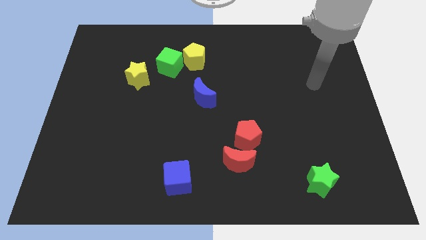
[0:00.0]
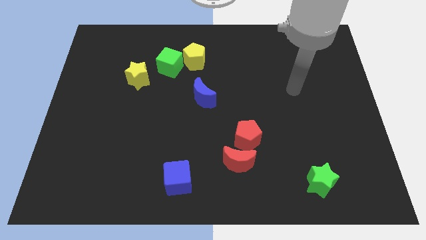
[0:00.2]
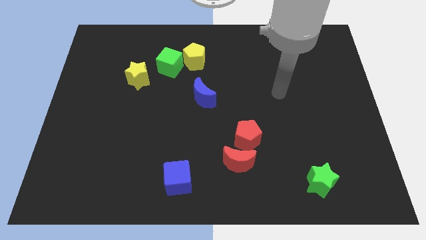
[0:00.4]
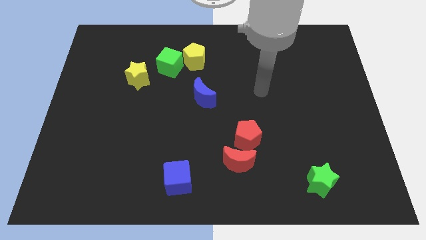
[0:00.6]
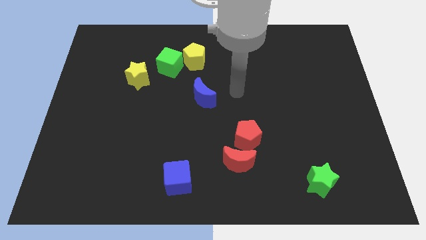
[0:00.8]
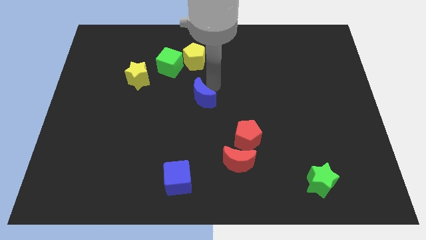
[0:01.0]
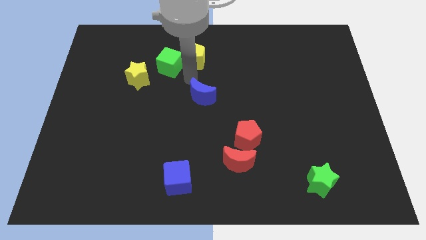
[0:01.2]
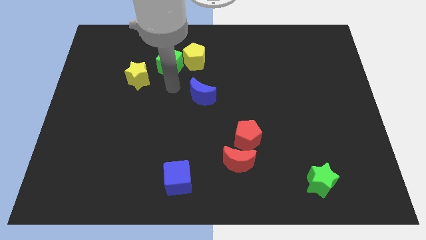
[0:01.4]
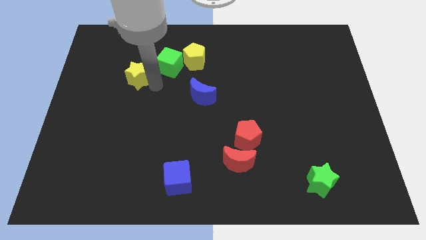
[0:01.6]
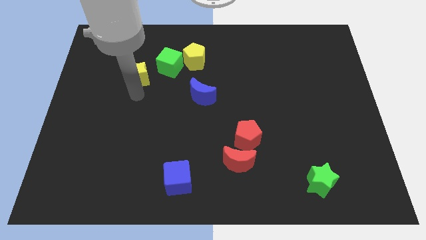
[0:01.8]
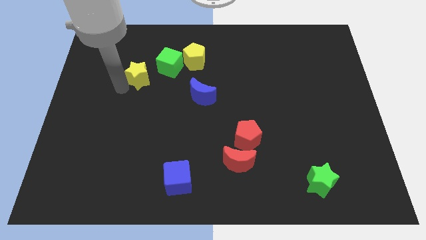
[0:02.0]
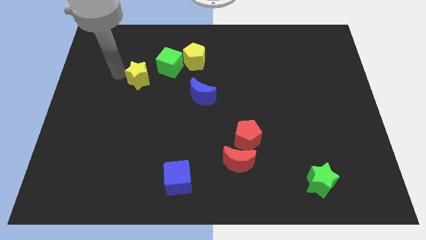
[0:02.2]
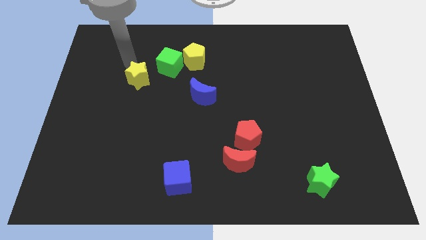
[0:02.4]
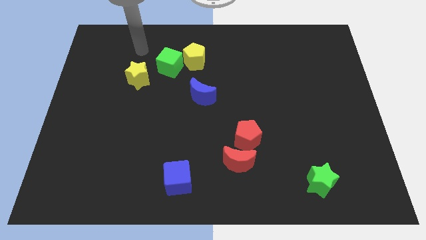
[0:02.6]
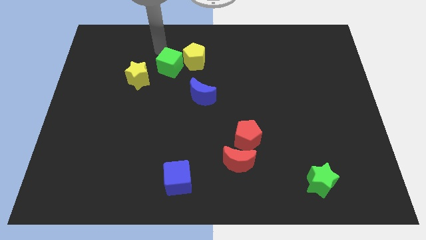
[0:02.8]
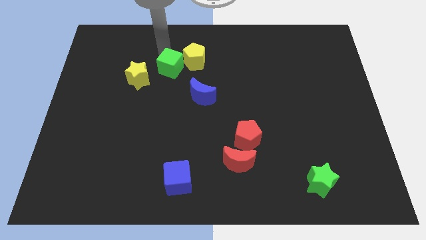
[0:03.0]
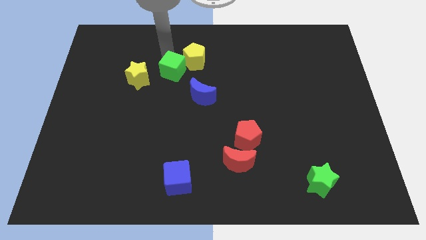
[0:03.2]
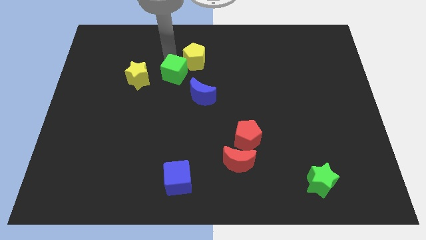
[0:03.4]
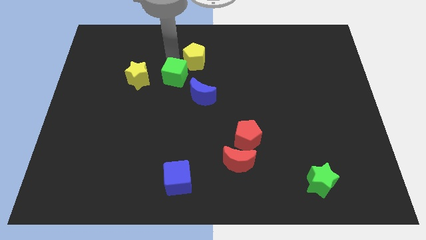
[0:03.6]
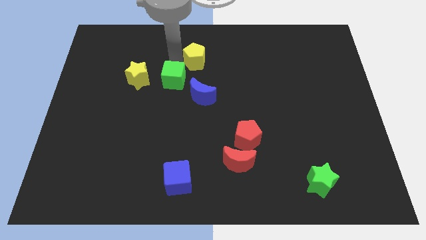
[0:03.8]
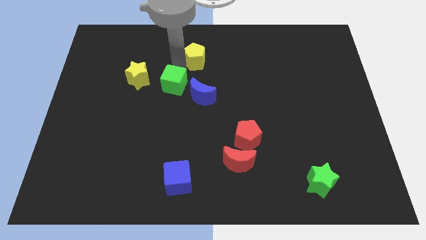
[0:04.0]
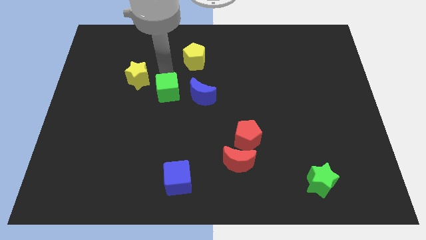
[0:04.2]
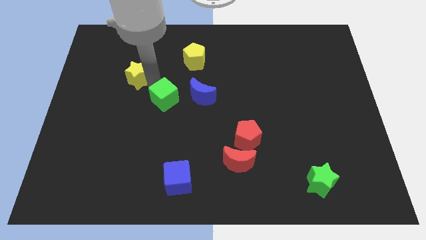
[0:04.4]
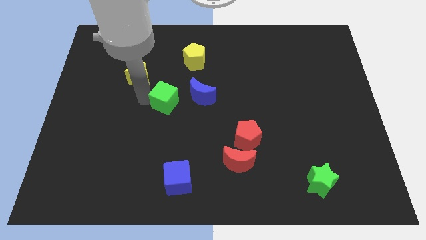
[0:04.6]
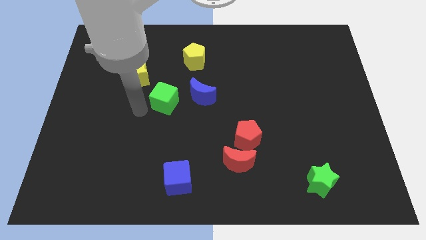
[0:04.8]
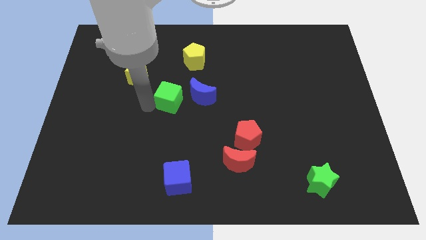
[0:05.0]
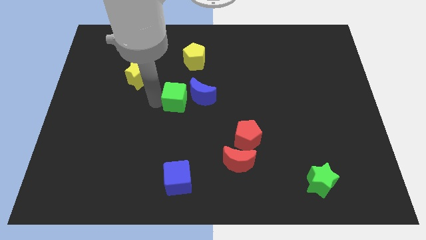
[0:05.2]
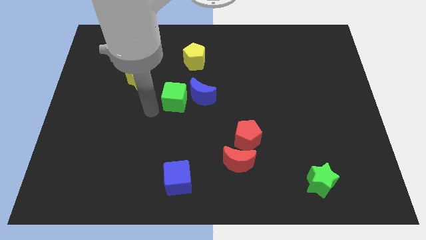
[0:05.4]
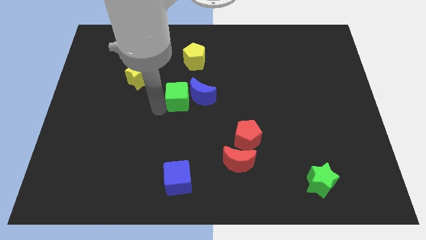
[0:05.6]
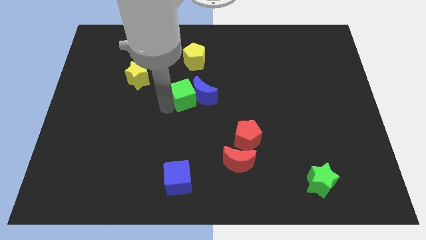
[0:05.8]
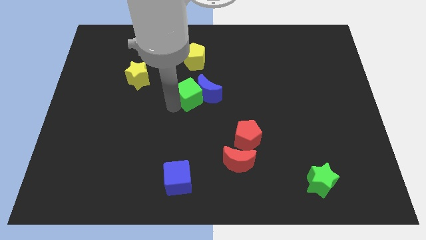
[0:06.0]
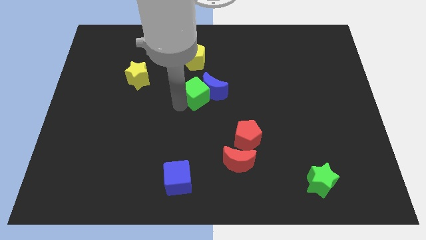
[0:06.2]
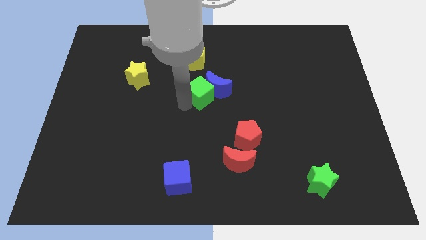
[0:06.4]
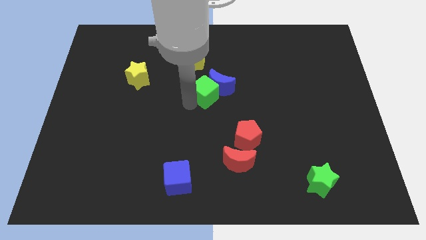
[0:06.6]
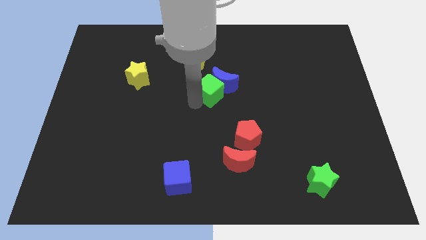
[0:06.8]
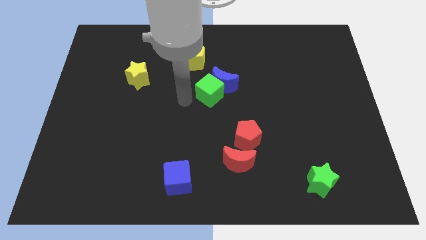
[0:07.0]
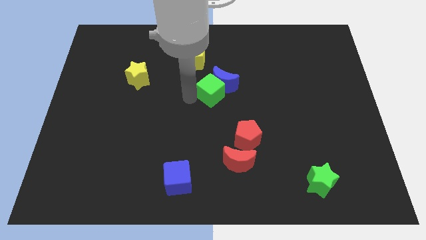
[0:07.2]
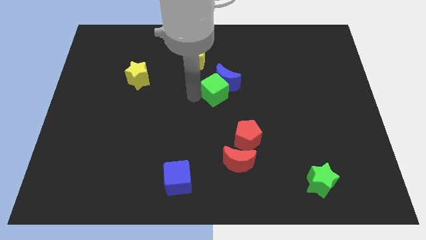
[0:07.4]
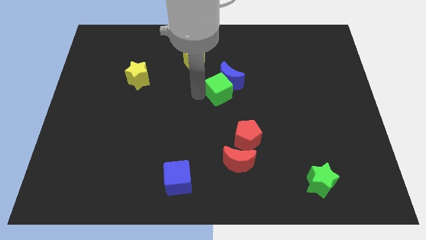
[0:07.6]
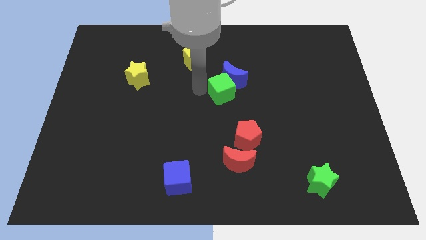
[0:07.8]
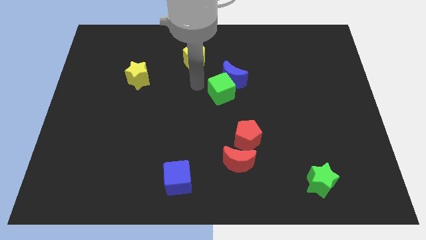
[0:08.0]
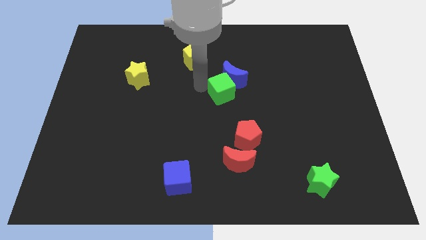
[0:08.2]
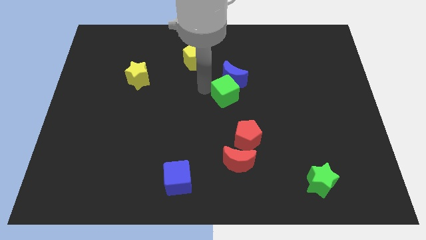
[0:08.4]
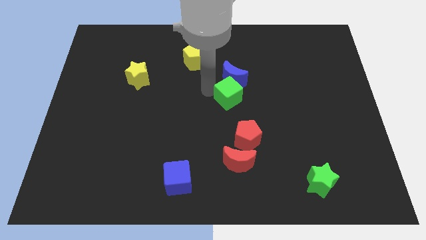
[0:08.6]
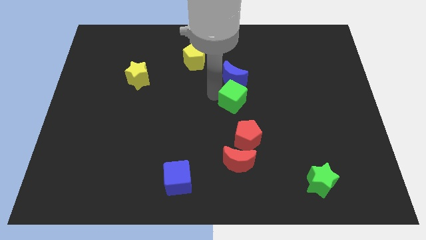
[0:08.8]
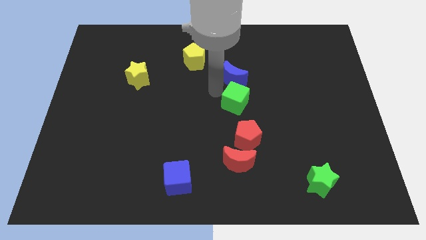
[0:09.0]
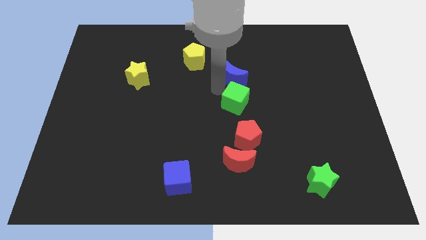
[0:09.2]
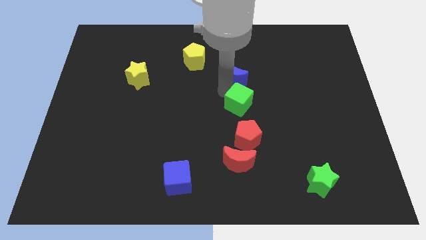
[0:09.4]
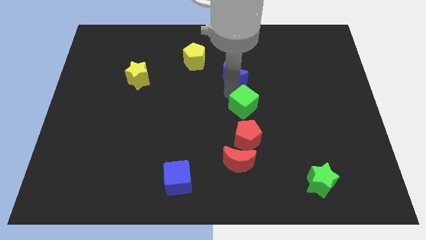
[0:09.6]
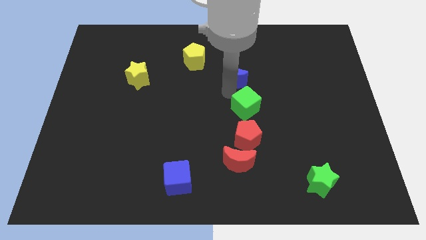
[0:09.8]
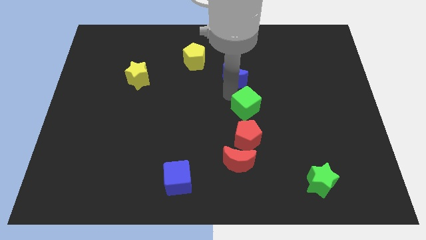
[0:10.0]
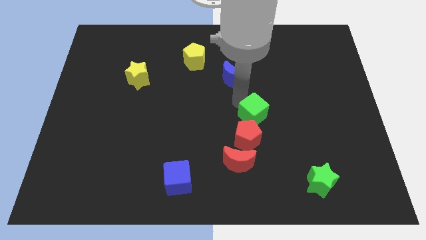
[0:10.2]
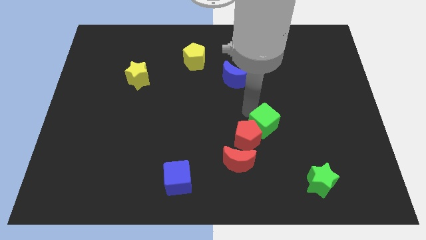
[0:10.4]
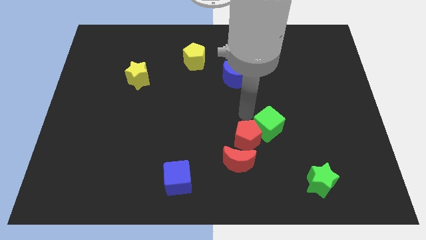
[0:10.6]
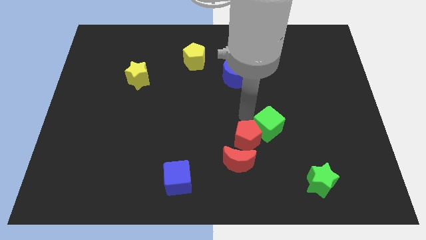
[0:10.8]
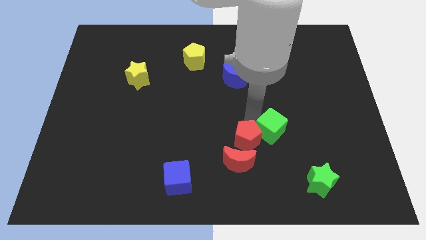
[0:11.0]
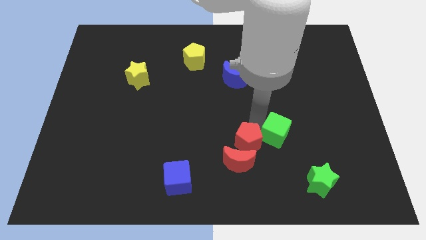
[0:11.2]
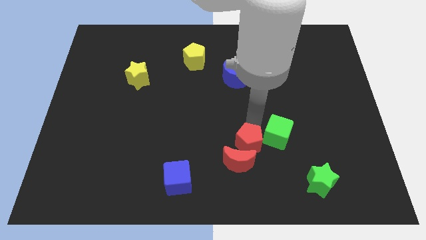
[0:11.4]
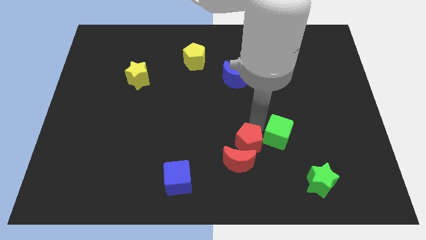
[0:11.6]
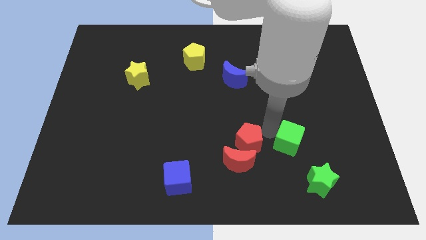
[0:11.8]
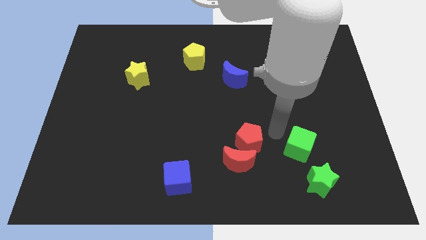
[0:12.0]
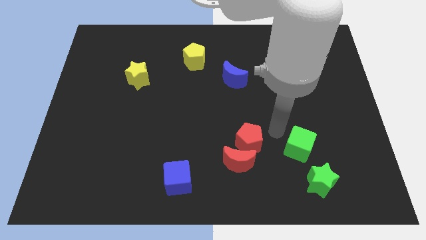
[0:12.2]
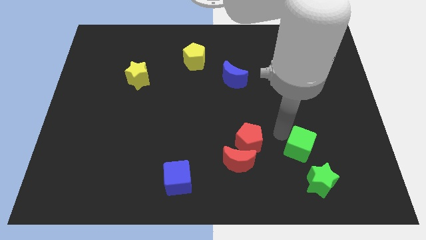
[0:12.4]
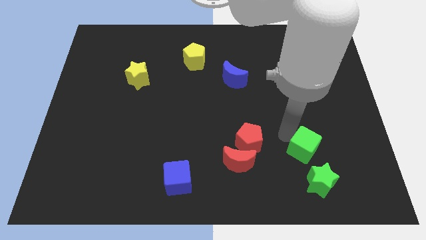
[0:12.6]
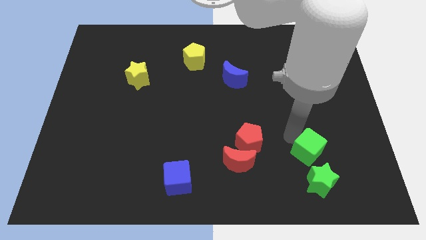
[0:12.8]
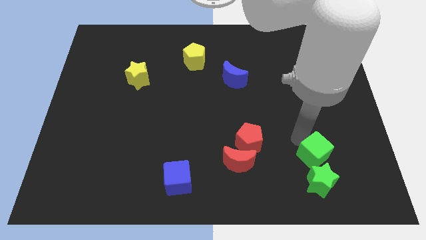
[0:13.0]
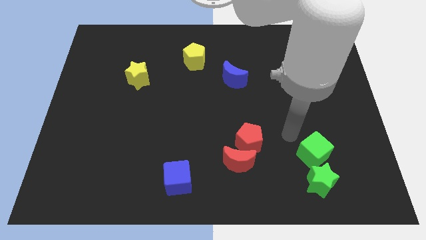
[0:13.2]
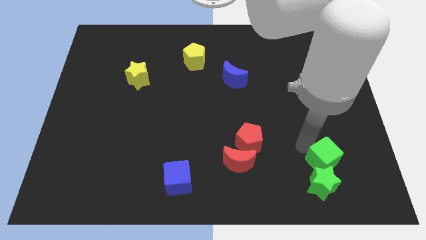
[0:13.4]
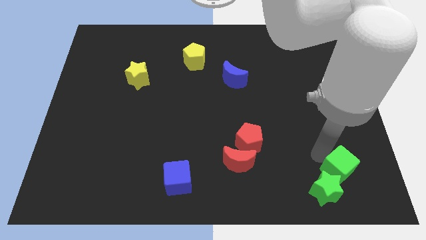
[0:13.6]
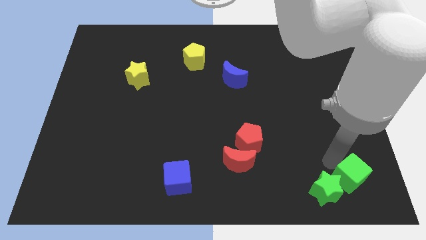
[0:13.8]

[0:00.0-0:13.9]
put the green cube to the bottom right corner
